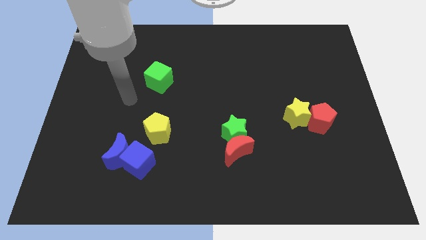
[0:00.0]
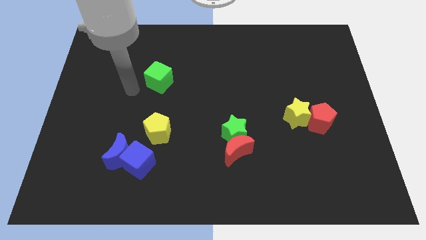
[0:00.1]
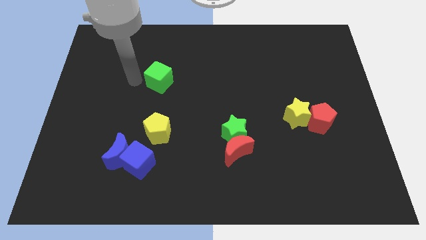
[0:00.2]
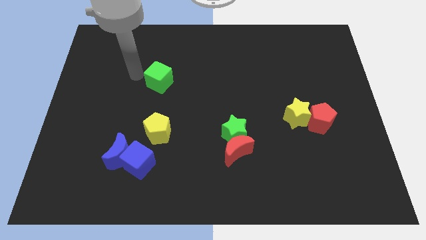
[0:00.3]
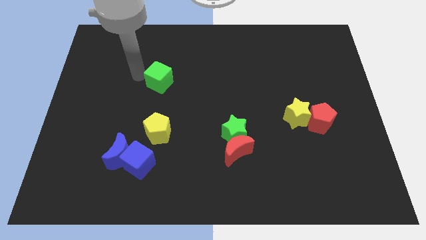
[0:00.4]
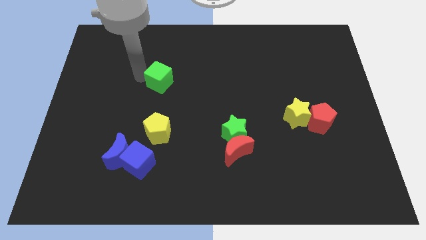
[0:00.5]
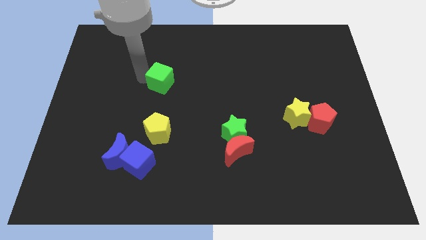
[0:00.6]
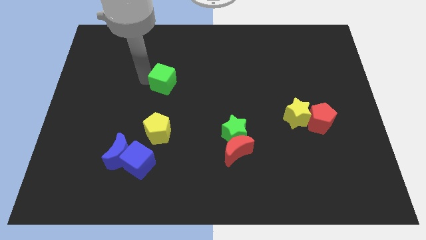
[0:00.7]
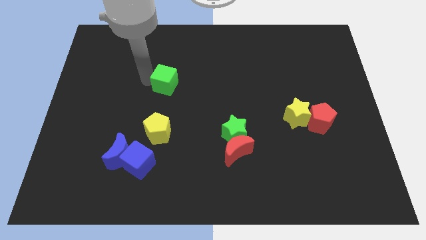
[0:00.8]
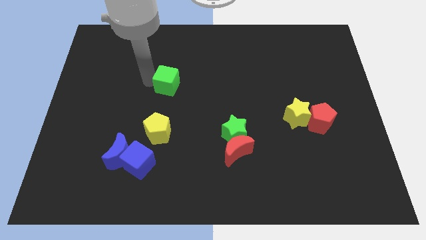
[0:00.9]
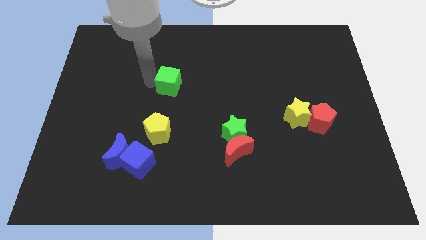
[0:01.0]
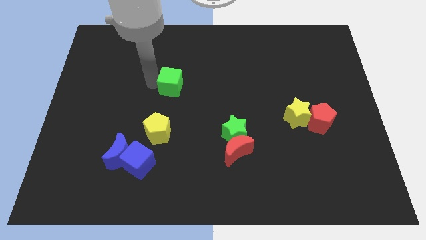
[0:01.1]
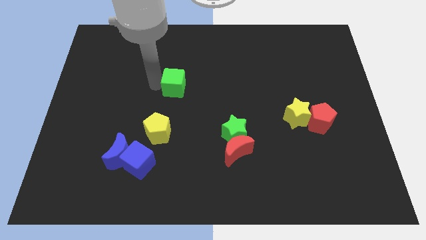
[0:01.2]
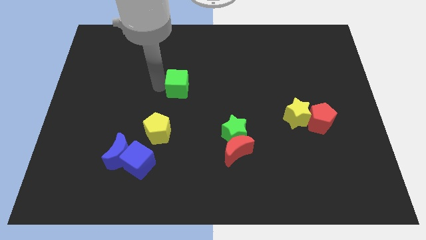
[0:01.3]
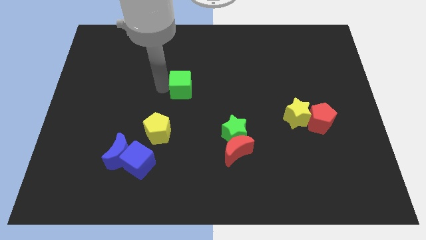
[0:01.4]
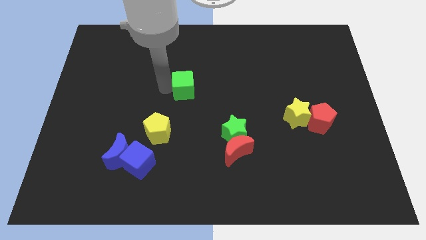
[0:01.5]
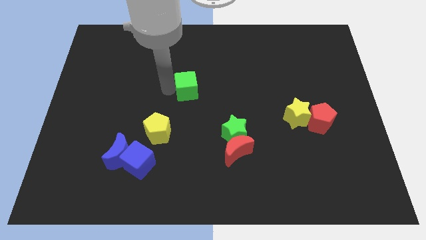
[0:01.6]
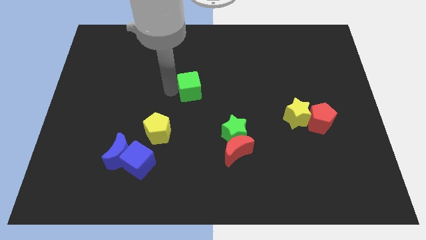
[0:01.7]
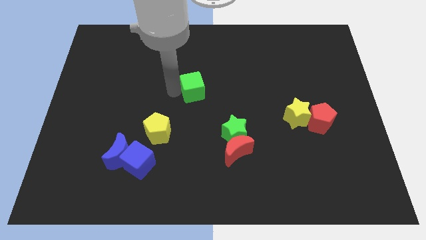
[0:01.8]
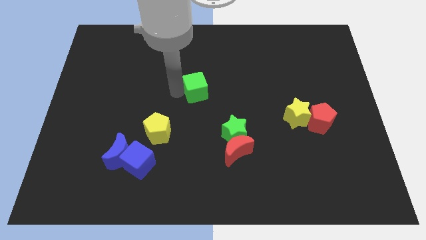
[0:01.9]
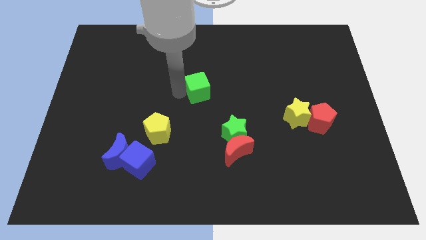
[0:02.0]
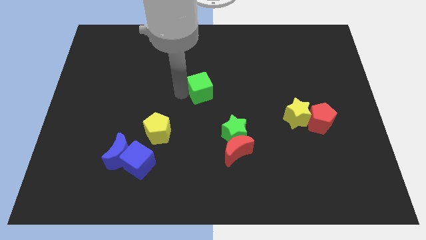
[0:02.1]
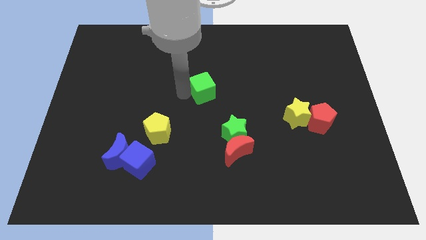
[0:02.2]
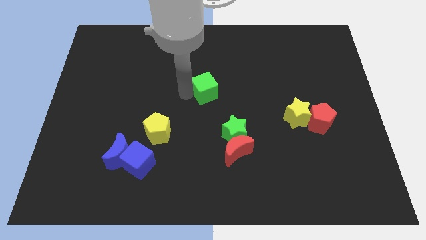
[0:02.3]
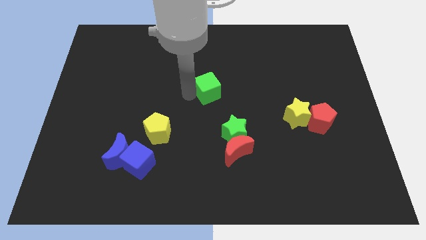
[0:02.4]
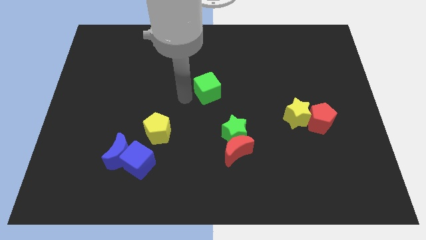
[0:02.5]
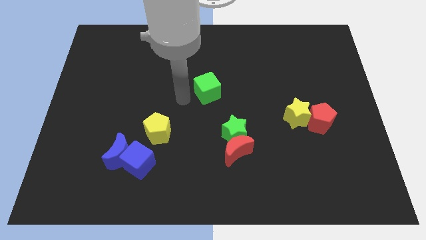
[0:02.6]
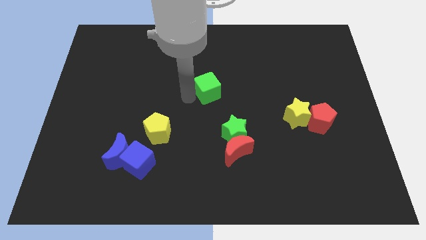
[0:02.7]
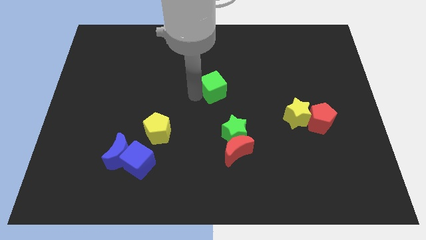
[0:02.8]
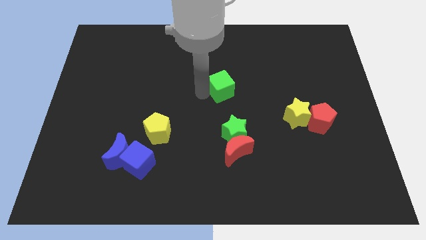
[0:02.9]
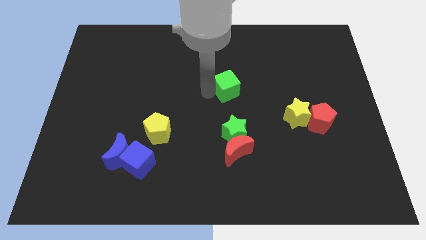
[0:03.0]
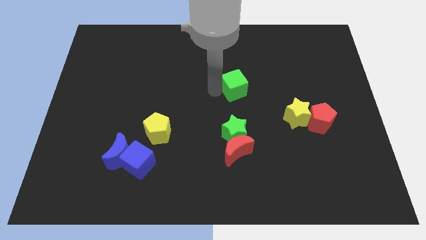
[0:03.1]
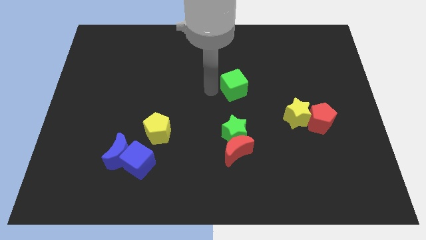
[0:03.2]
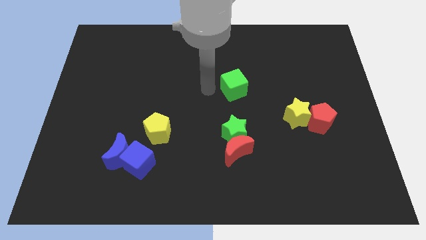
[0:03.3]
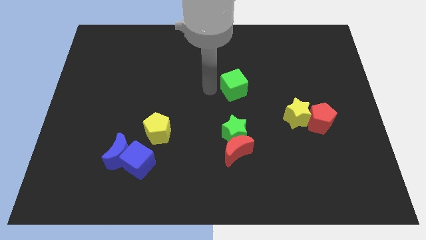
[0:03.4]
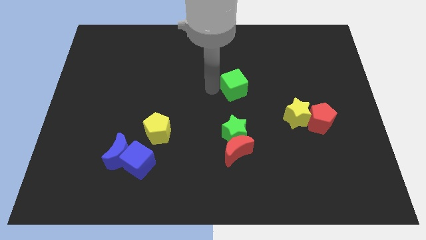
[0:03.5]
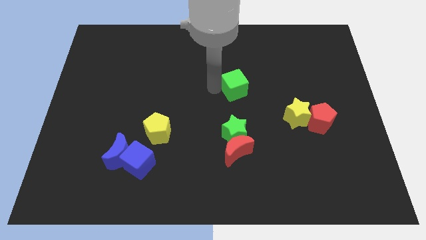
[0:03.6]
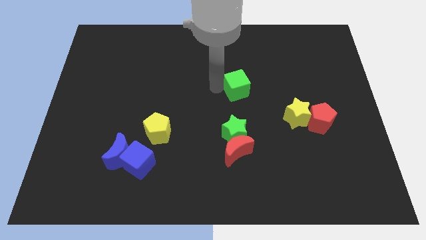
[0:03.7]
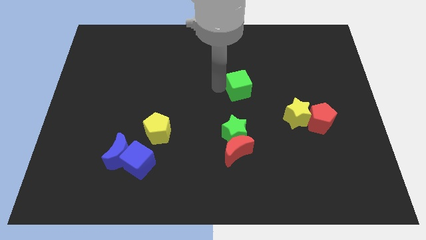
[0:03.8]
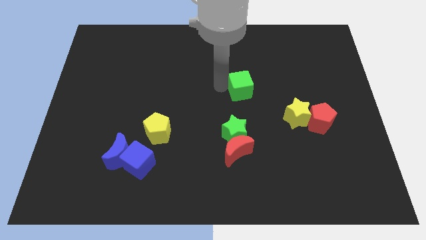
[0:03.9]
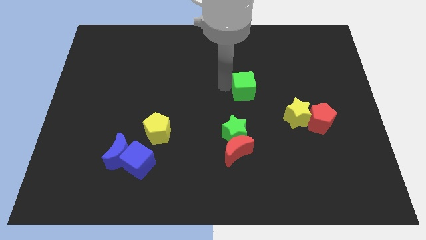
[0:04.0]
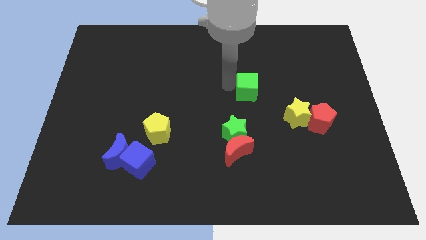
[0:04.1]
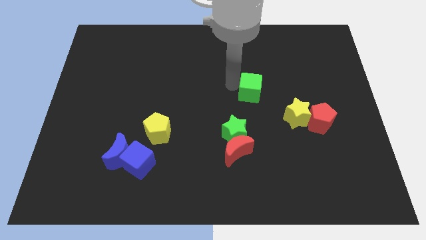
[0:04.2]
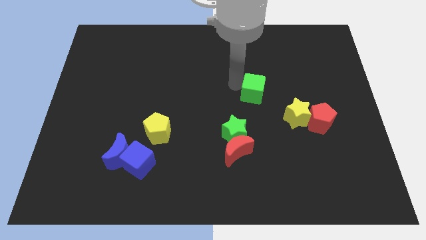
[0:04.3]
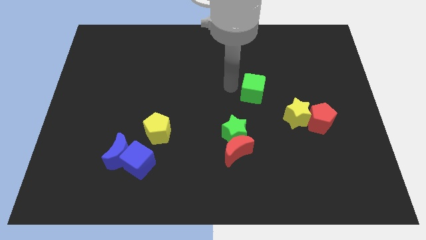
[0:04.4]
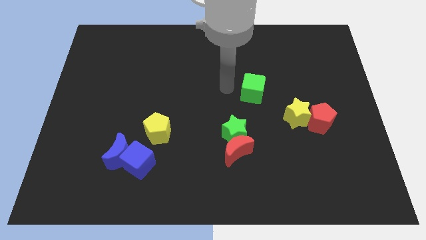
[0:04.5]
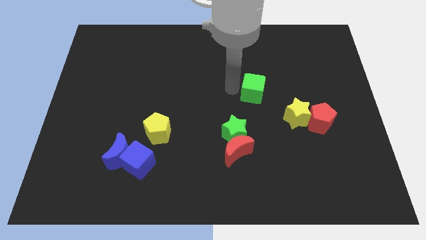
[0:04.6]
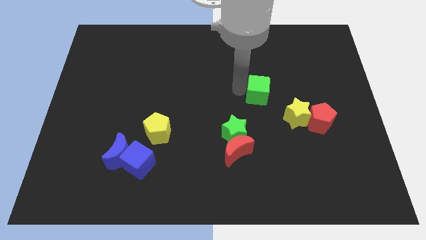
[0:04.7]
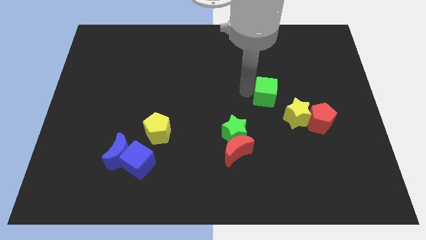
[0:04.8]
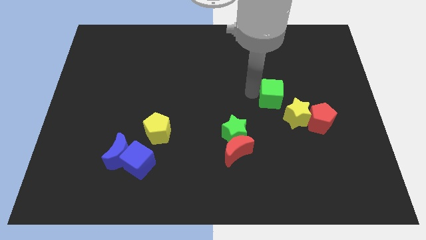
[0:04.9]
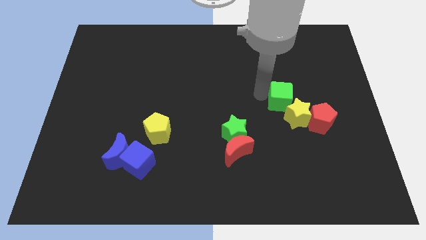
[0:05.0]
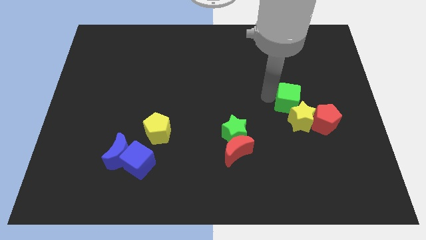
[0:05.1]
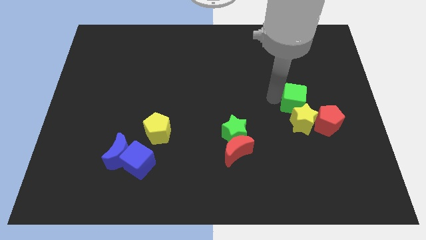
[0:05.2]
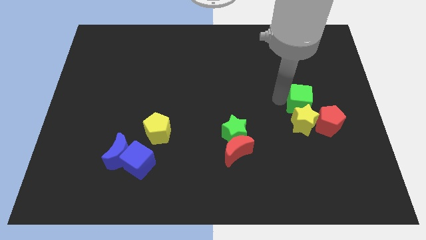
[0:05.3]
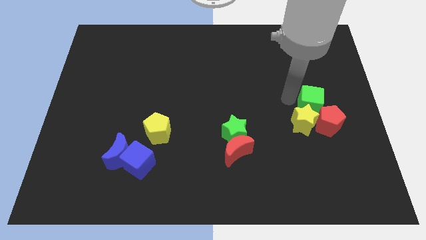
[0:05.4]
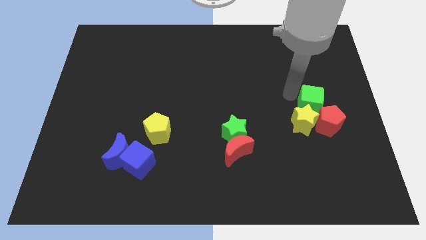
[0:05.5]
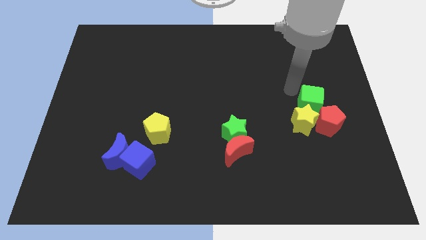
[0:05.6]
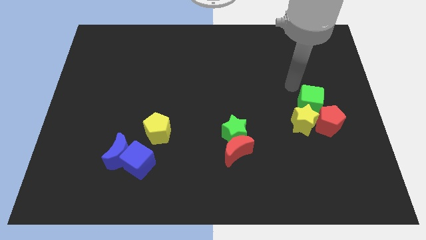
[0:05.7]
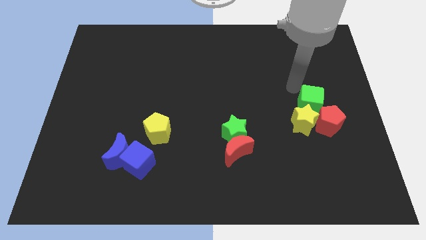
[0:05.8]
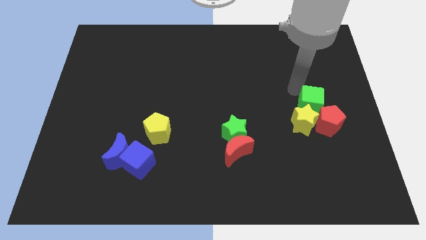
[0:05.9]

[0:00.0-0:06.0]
slide the green cube towards the red pentagon
